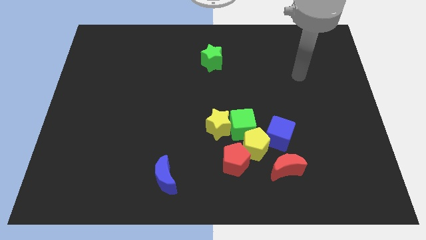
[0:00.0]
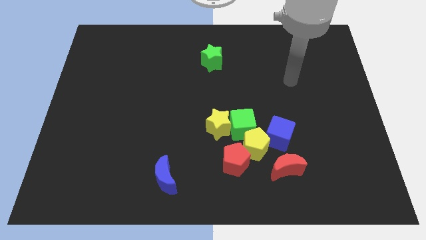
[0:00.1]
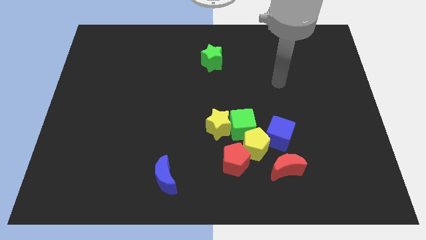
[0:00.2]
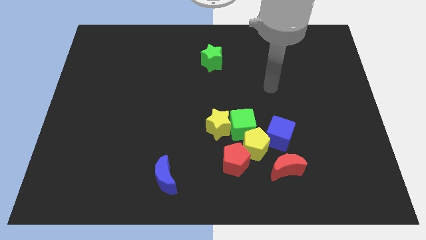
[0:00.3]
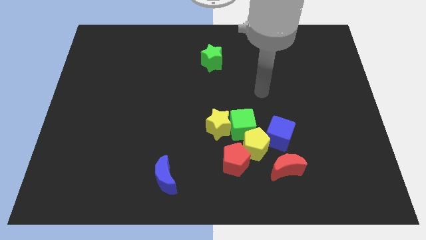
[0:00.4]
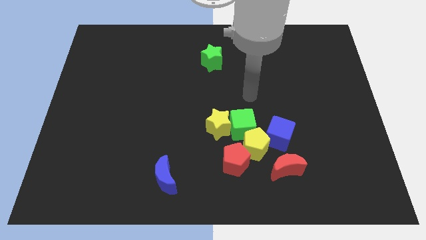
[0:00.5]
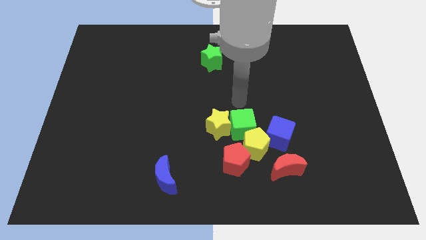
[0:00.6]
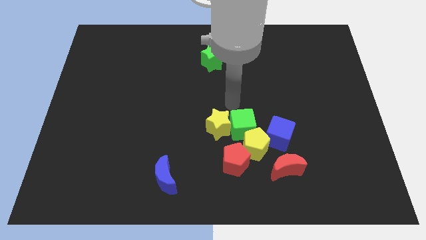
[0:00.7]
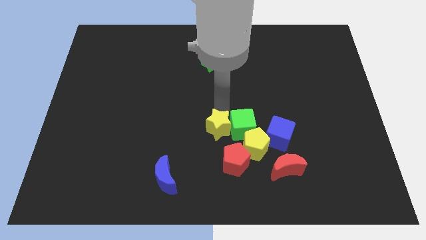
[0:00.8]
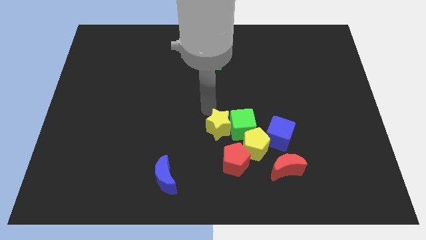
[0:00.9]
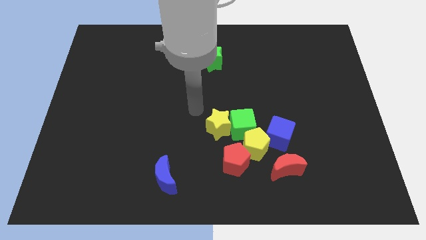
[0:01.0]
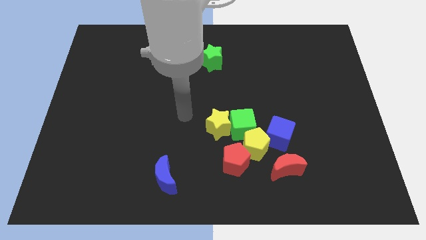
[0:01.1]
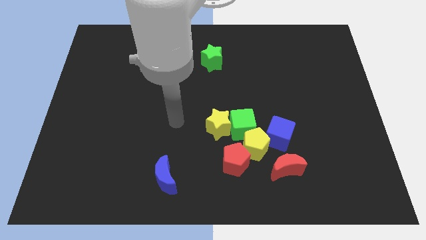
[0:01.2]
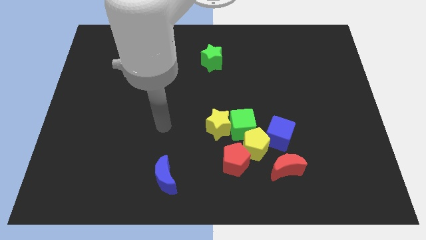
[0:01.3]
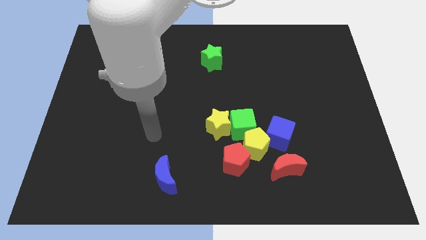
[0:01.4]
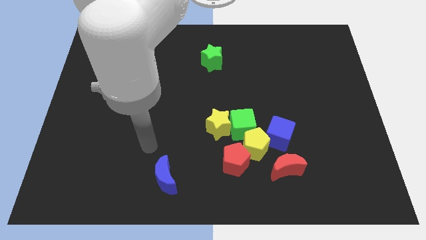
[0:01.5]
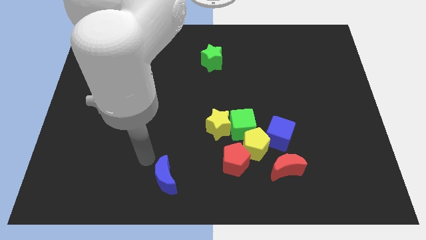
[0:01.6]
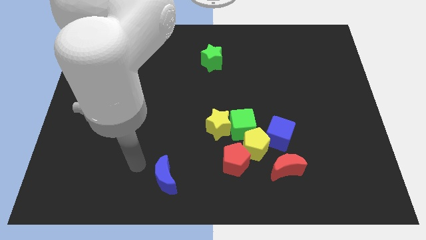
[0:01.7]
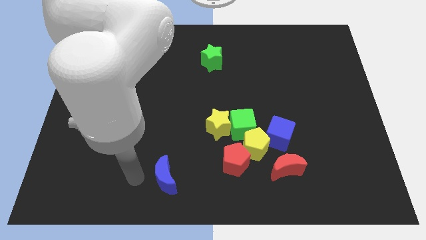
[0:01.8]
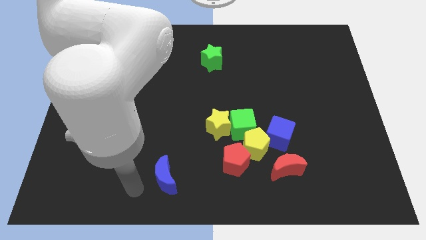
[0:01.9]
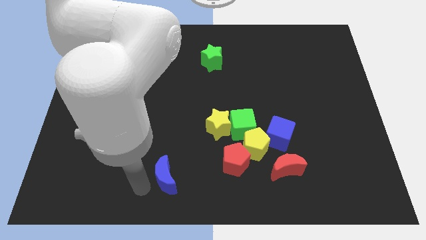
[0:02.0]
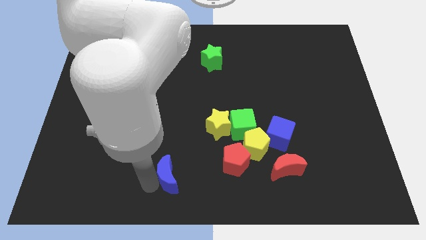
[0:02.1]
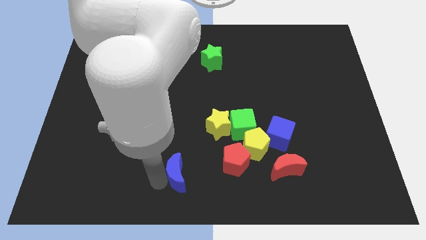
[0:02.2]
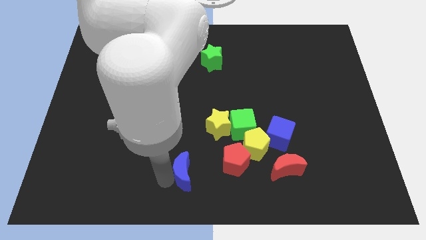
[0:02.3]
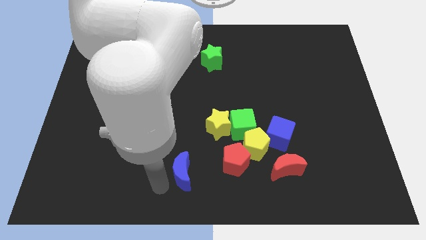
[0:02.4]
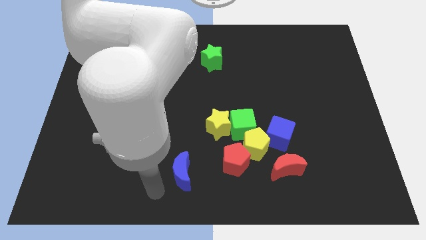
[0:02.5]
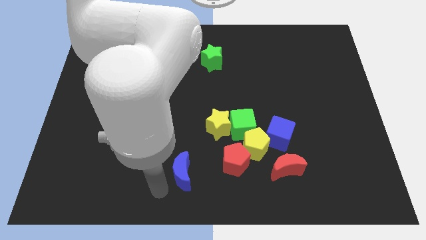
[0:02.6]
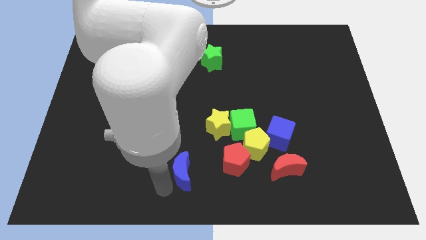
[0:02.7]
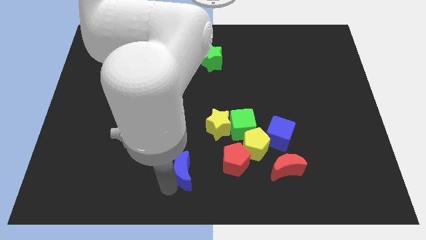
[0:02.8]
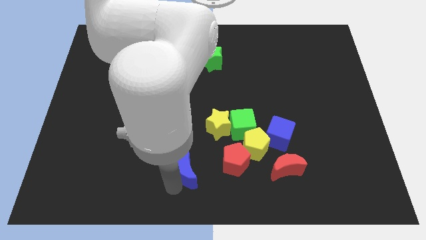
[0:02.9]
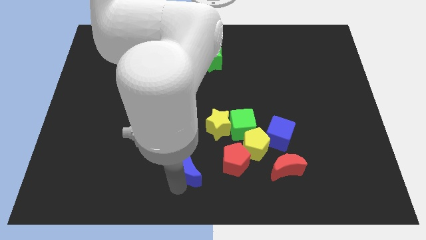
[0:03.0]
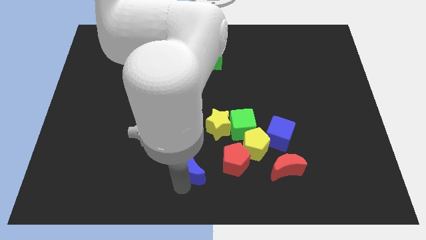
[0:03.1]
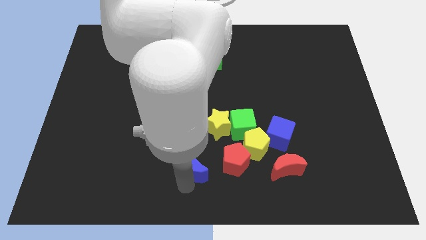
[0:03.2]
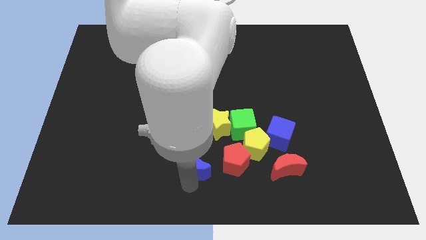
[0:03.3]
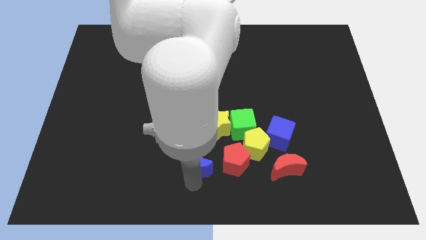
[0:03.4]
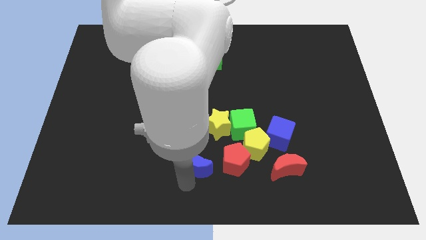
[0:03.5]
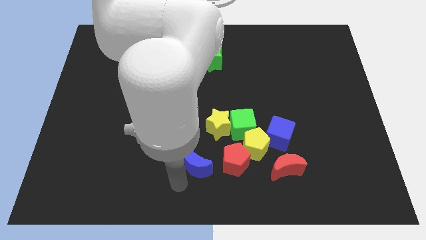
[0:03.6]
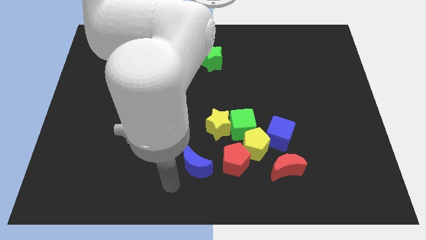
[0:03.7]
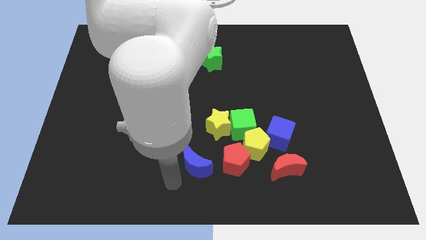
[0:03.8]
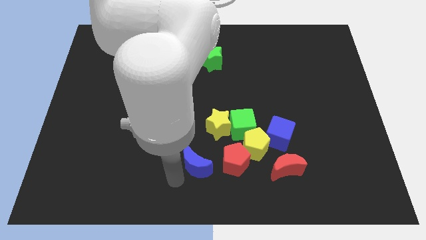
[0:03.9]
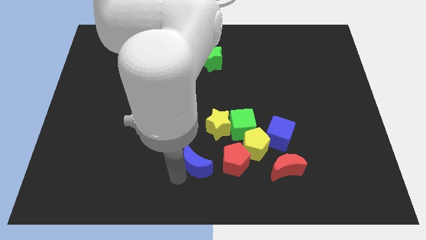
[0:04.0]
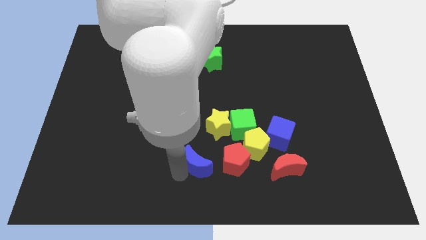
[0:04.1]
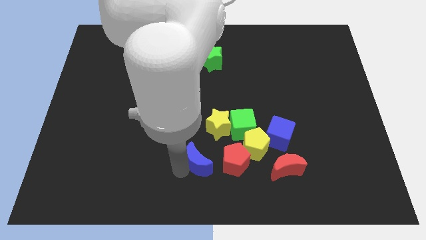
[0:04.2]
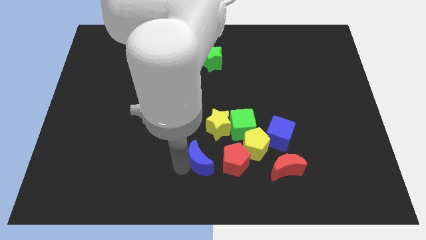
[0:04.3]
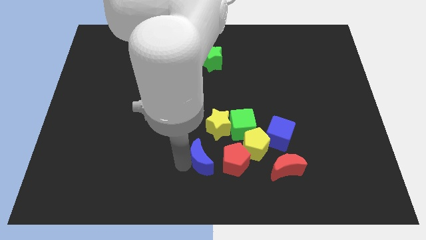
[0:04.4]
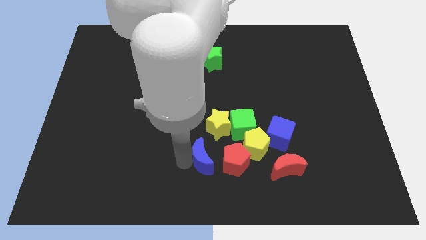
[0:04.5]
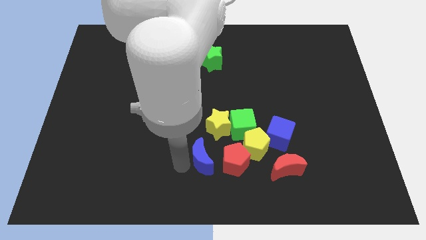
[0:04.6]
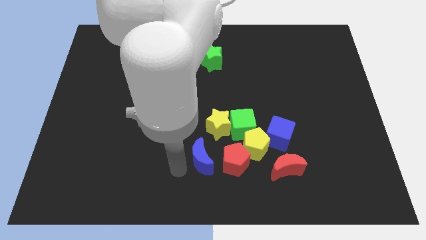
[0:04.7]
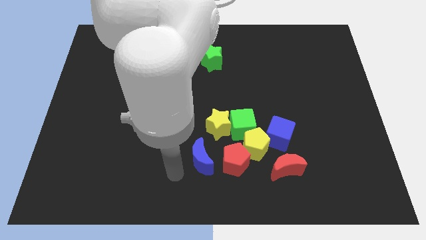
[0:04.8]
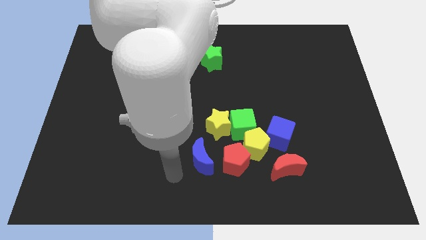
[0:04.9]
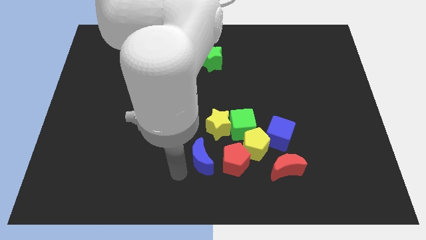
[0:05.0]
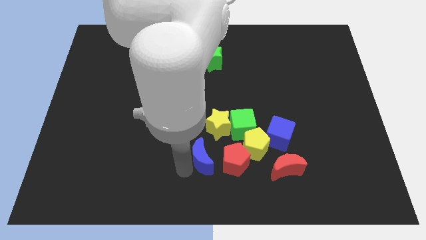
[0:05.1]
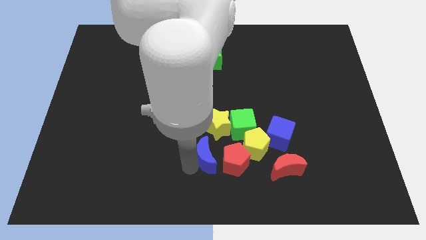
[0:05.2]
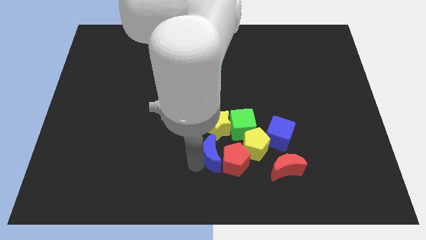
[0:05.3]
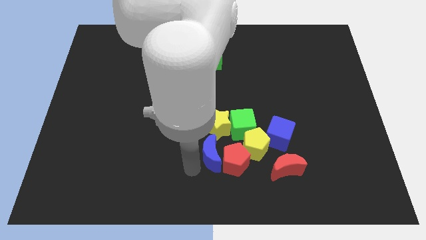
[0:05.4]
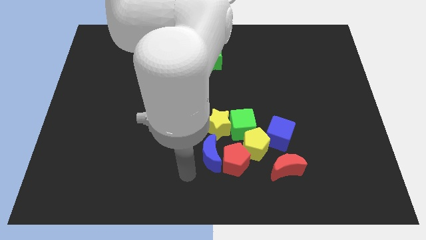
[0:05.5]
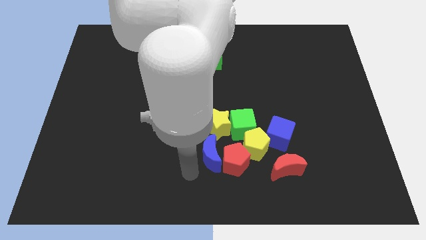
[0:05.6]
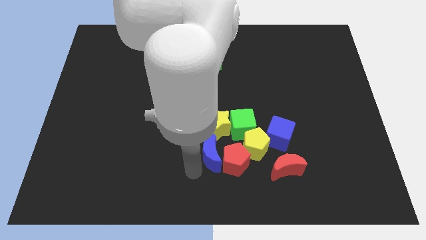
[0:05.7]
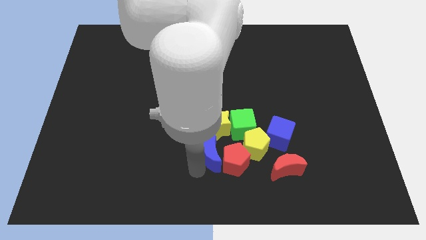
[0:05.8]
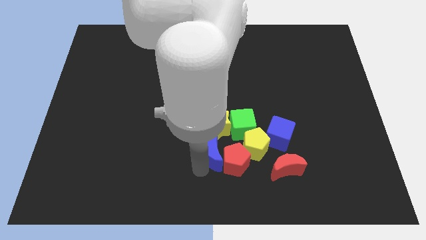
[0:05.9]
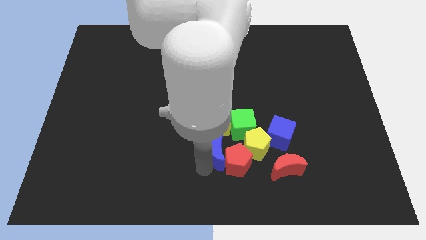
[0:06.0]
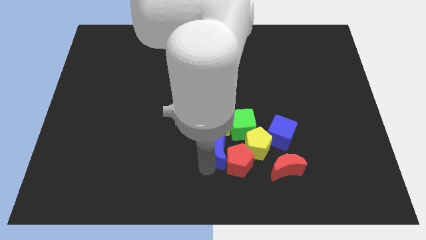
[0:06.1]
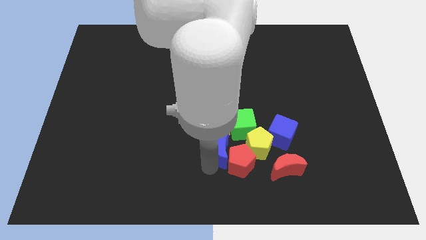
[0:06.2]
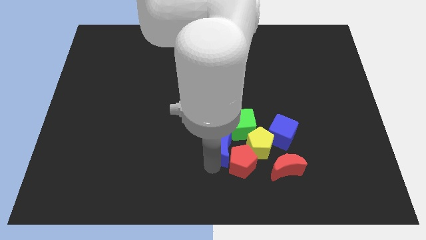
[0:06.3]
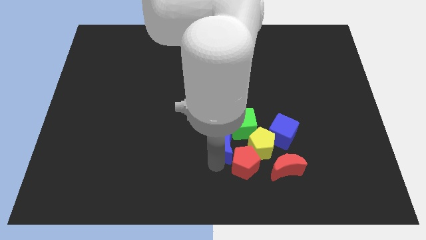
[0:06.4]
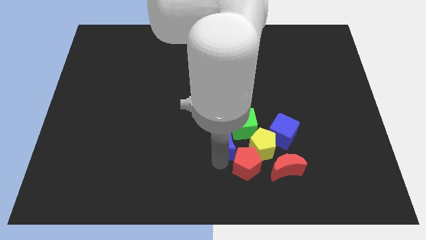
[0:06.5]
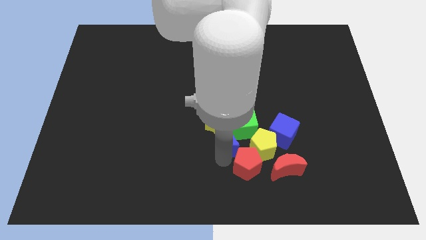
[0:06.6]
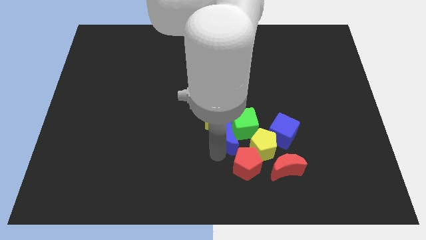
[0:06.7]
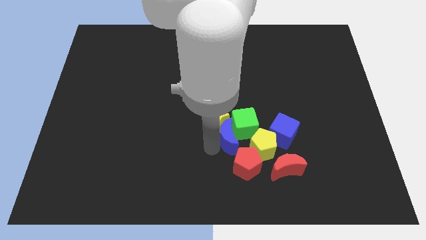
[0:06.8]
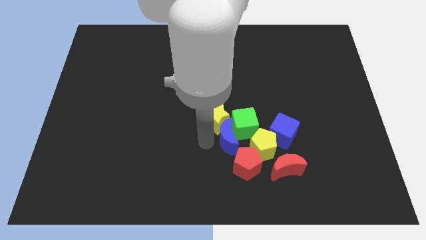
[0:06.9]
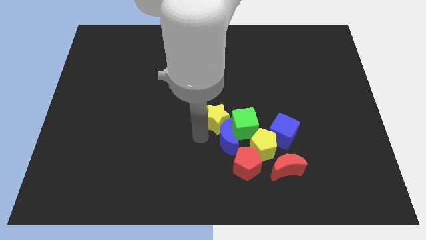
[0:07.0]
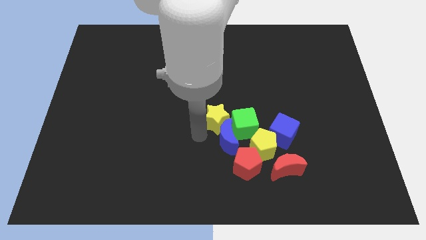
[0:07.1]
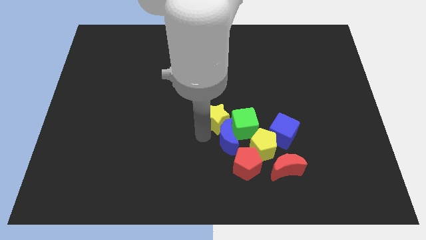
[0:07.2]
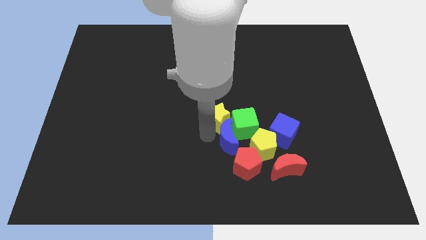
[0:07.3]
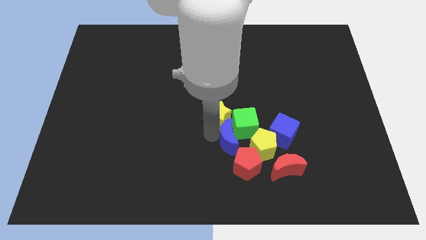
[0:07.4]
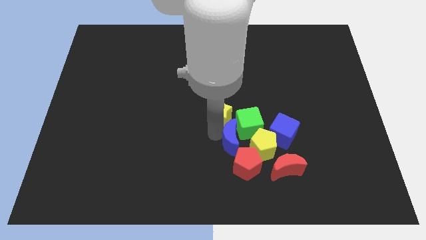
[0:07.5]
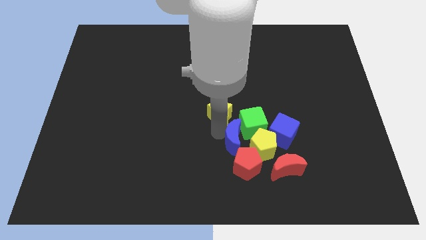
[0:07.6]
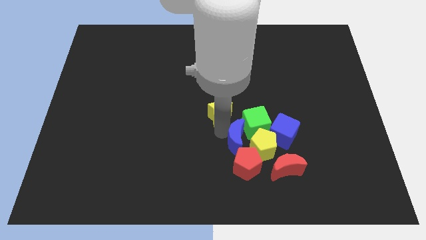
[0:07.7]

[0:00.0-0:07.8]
slide the blue moon towards the yellow pentagon
